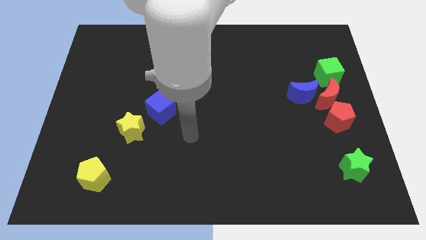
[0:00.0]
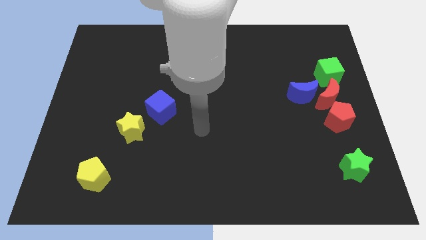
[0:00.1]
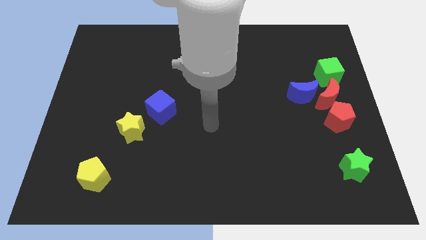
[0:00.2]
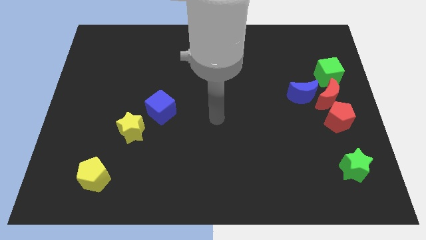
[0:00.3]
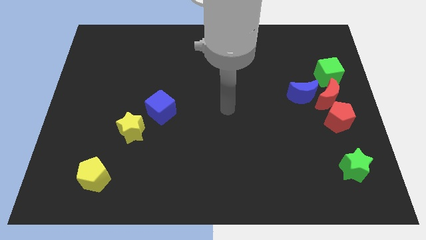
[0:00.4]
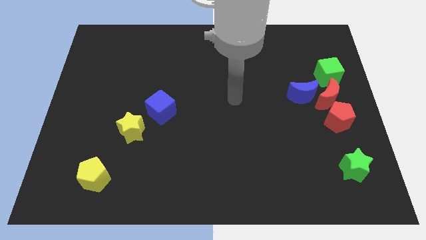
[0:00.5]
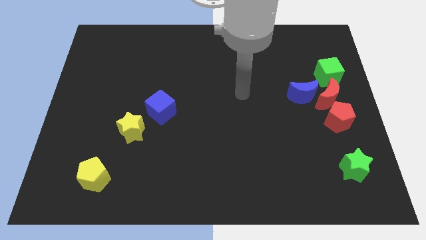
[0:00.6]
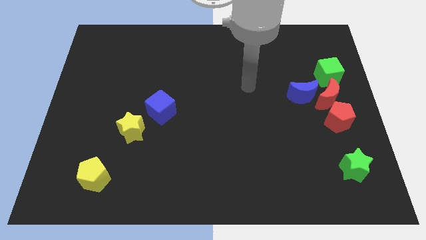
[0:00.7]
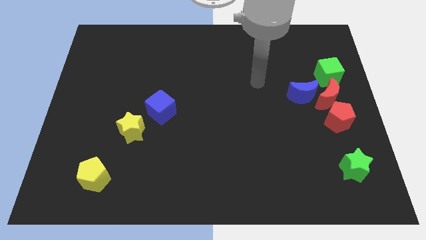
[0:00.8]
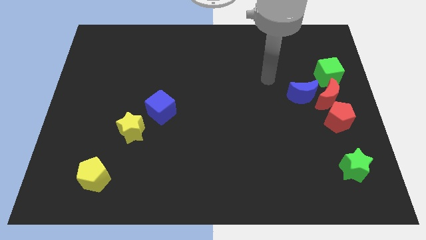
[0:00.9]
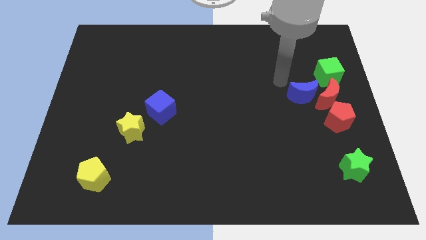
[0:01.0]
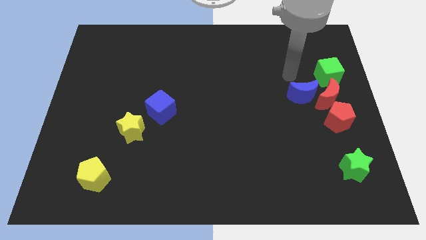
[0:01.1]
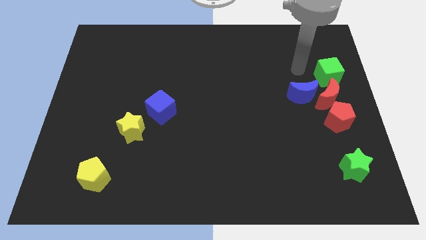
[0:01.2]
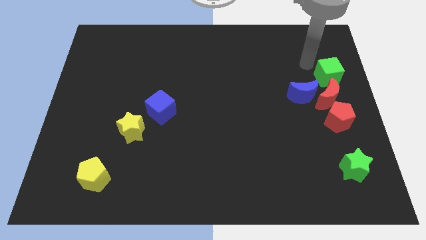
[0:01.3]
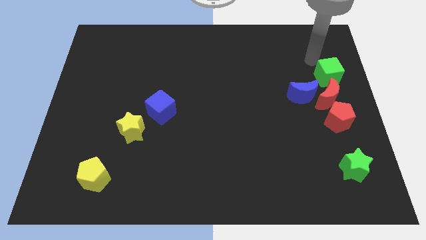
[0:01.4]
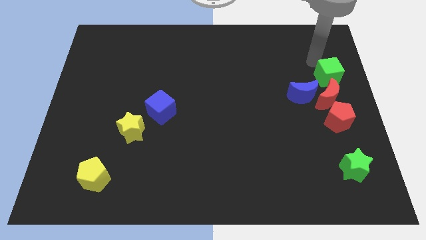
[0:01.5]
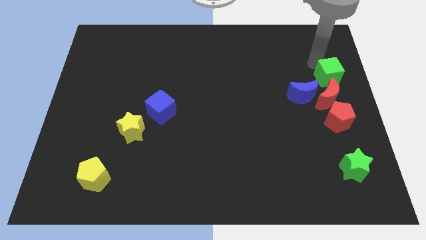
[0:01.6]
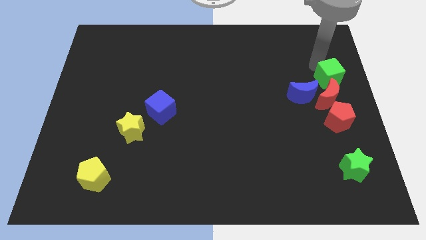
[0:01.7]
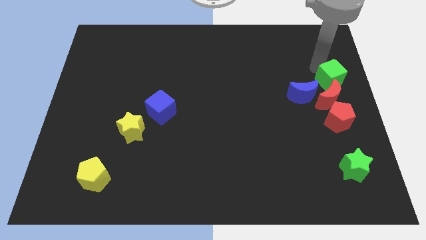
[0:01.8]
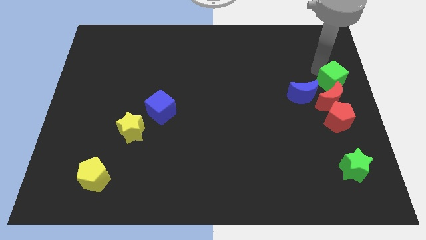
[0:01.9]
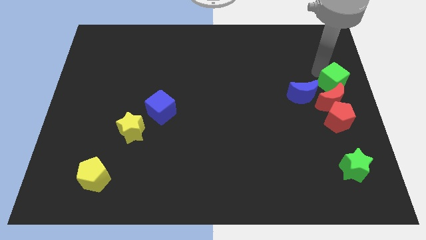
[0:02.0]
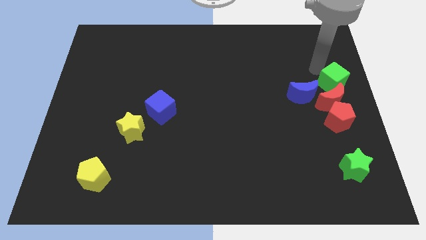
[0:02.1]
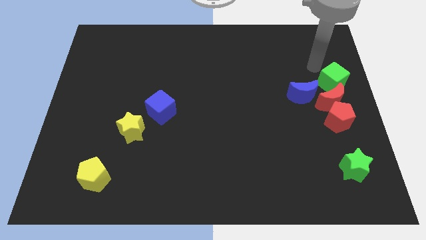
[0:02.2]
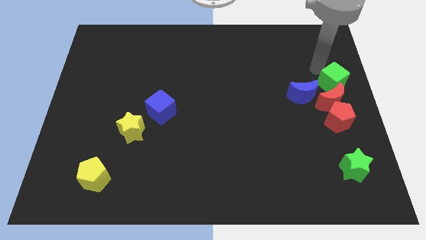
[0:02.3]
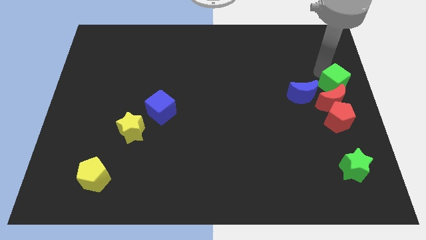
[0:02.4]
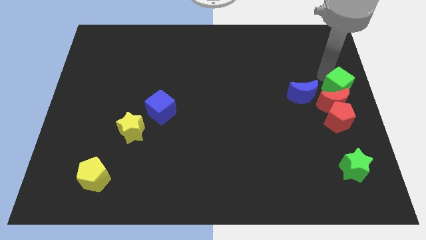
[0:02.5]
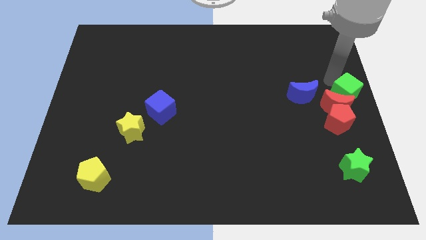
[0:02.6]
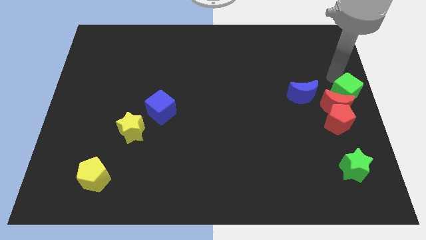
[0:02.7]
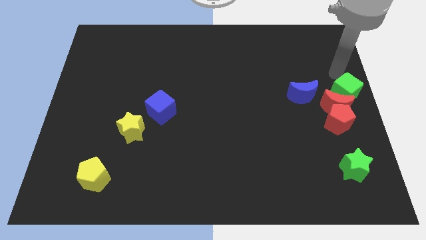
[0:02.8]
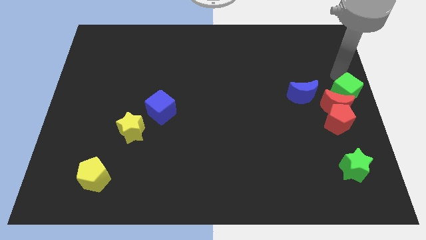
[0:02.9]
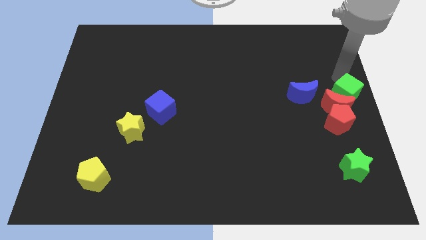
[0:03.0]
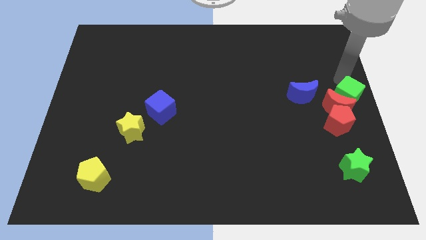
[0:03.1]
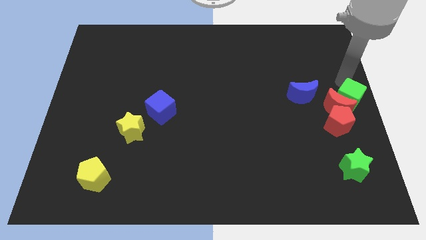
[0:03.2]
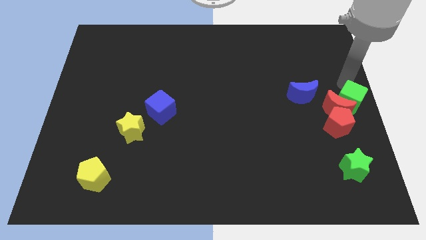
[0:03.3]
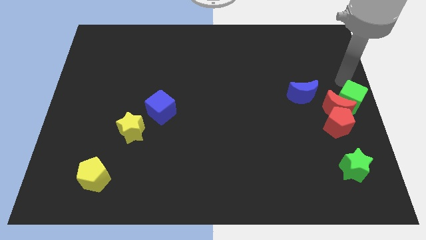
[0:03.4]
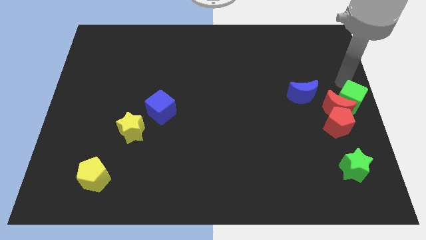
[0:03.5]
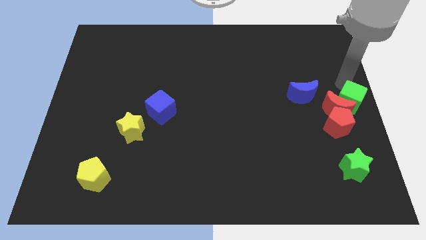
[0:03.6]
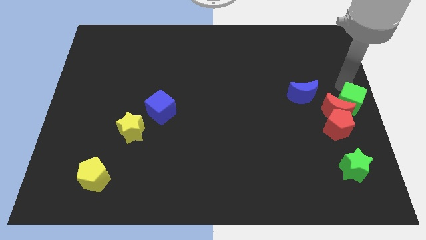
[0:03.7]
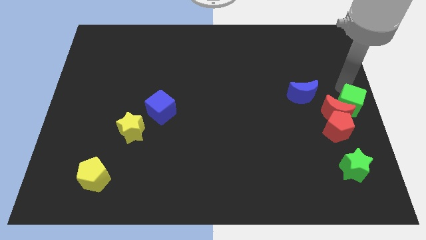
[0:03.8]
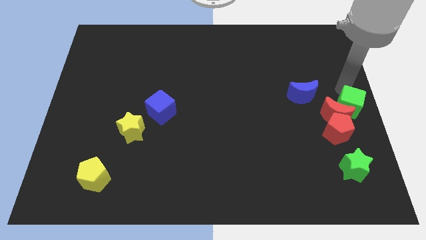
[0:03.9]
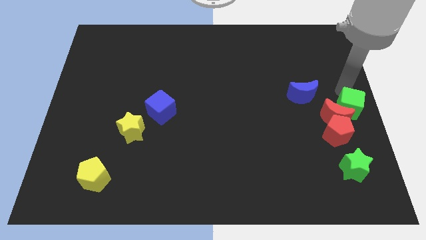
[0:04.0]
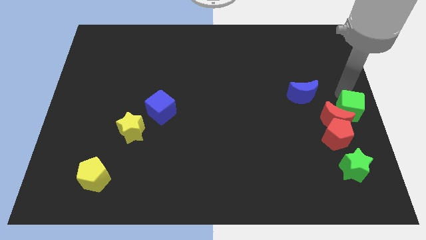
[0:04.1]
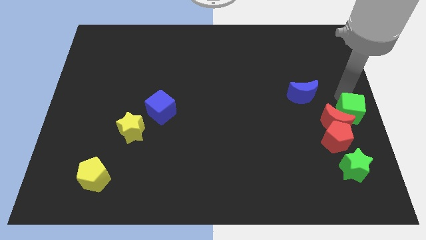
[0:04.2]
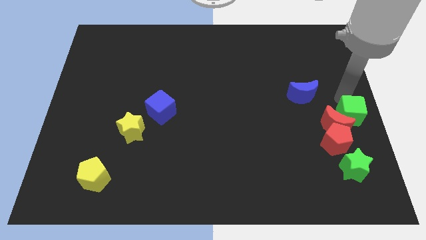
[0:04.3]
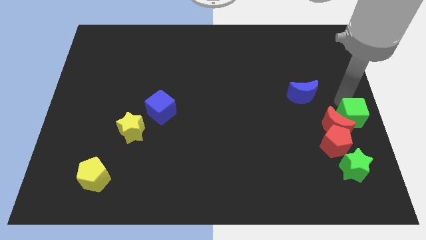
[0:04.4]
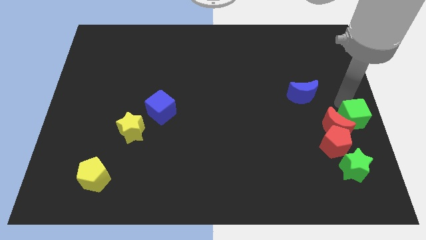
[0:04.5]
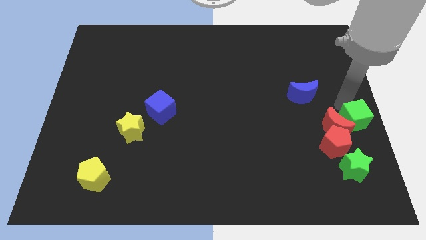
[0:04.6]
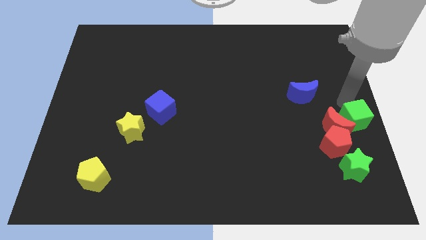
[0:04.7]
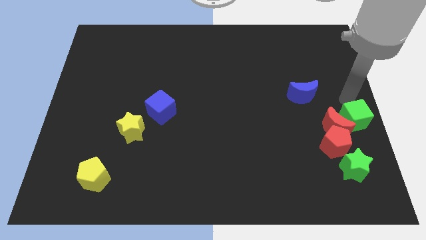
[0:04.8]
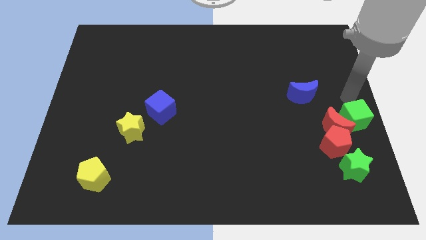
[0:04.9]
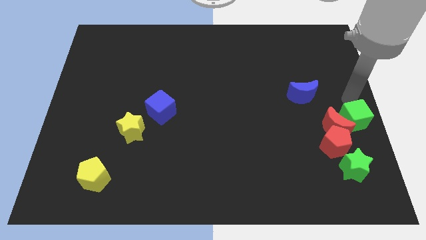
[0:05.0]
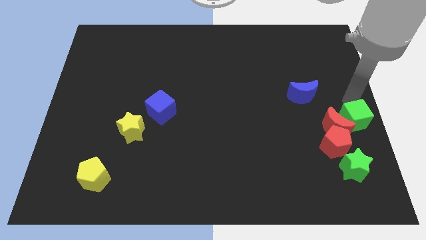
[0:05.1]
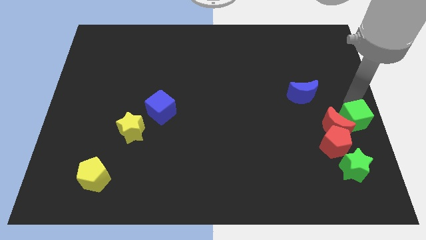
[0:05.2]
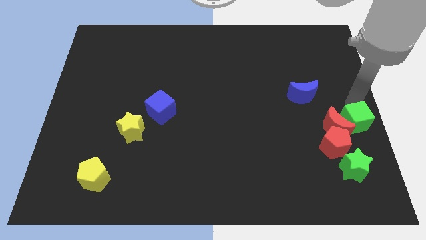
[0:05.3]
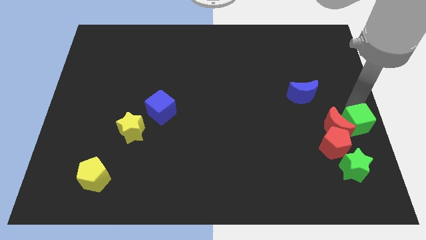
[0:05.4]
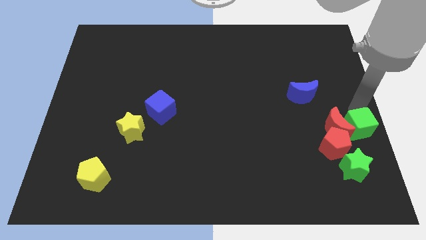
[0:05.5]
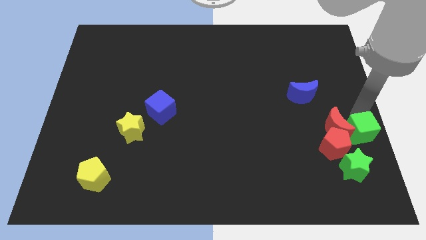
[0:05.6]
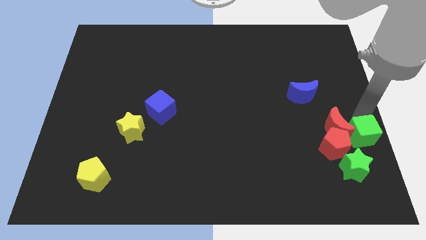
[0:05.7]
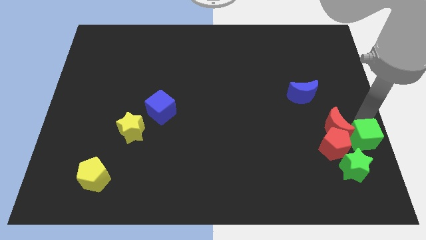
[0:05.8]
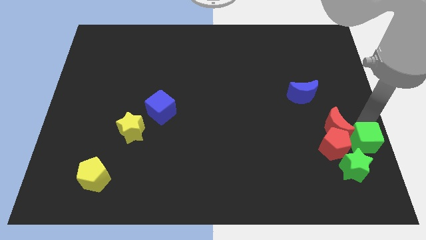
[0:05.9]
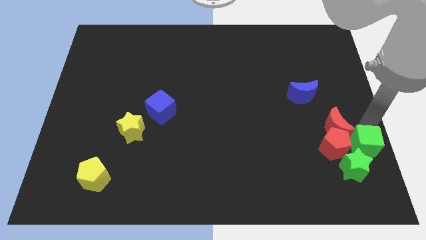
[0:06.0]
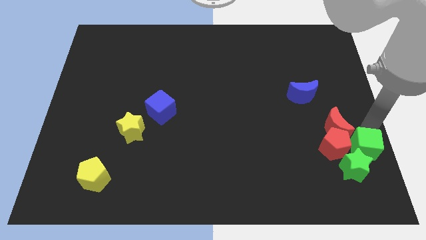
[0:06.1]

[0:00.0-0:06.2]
push the green cube to the green star
